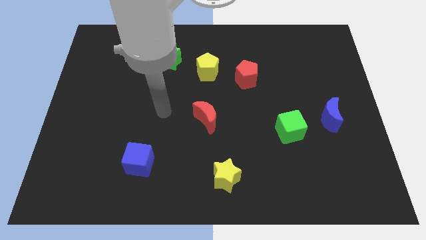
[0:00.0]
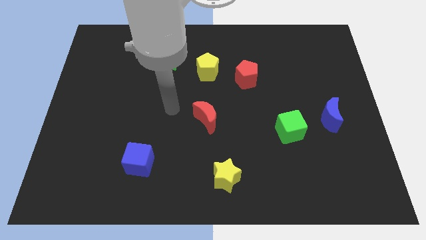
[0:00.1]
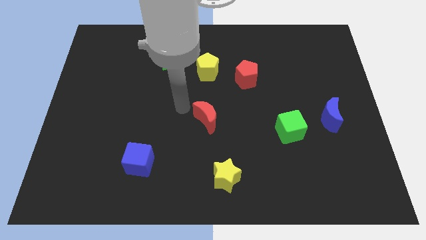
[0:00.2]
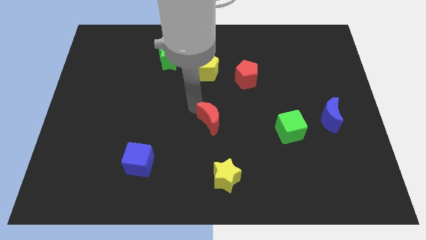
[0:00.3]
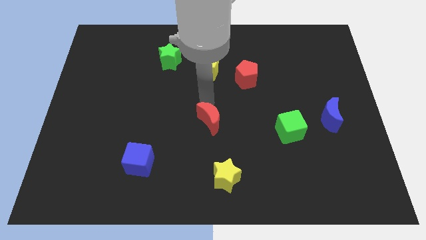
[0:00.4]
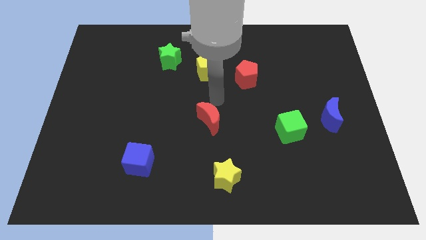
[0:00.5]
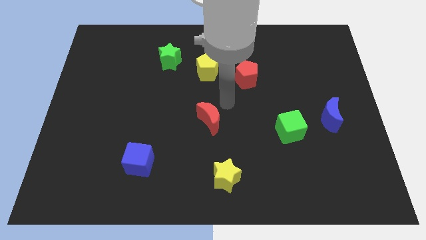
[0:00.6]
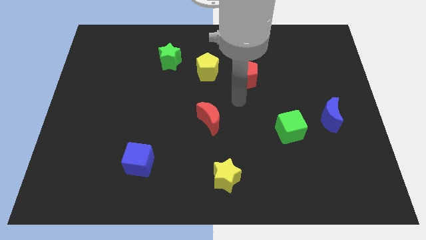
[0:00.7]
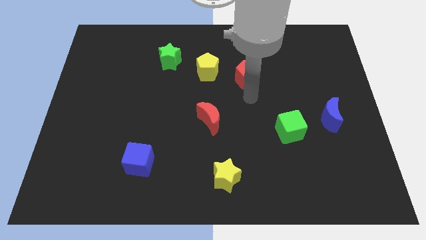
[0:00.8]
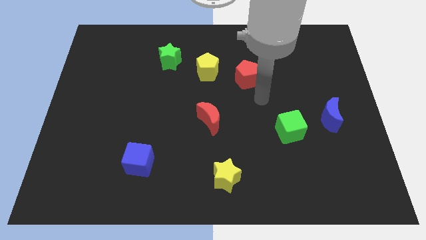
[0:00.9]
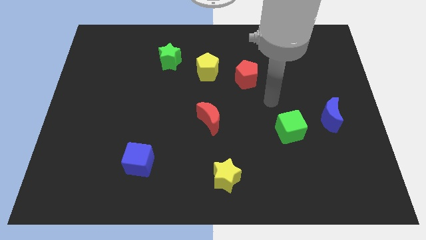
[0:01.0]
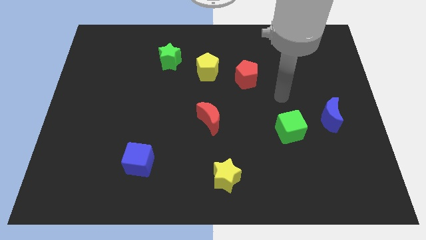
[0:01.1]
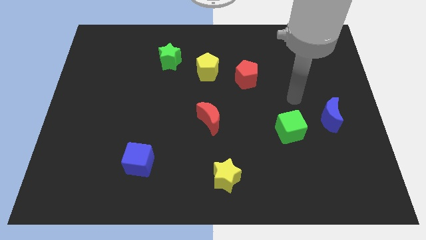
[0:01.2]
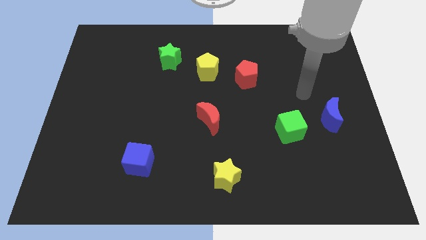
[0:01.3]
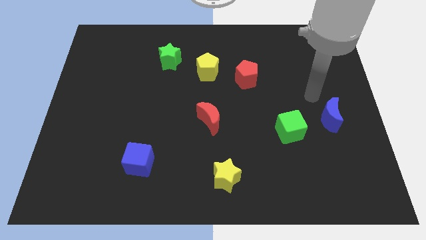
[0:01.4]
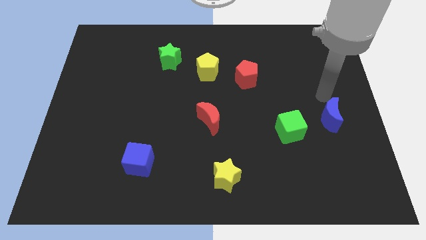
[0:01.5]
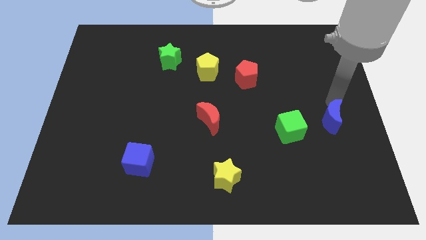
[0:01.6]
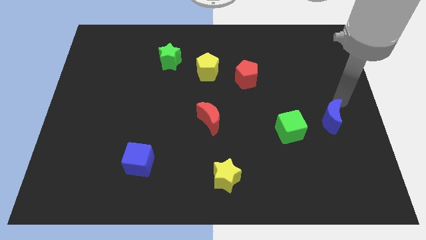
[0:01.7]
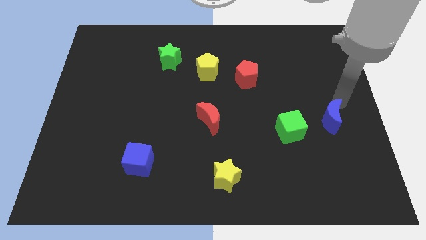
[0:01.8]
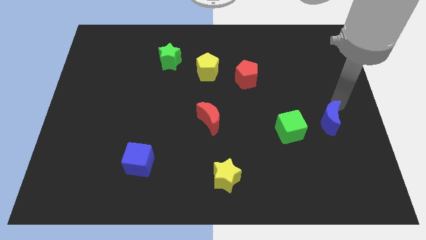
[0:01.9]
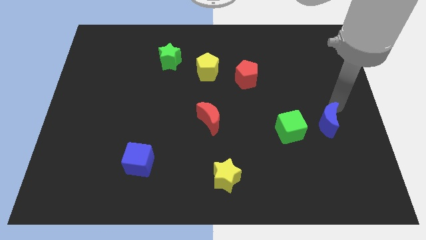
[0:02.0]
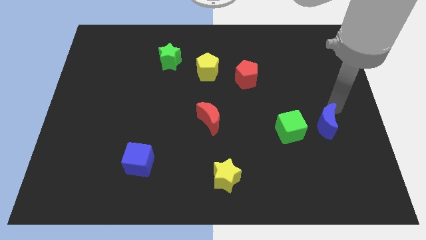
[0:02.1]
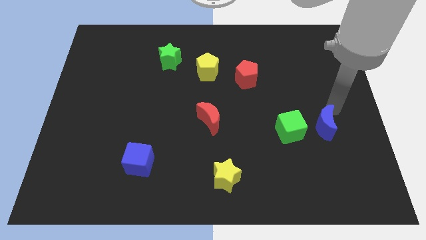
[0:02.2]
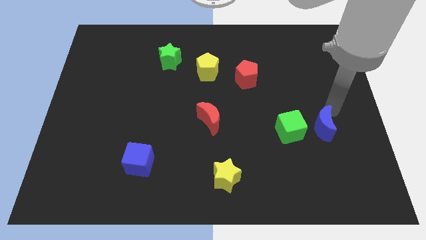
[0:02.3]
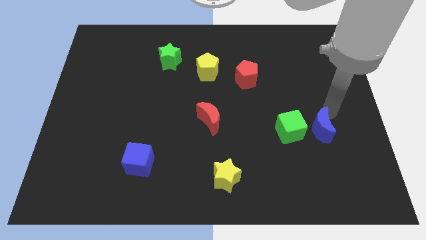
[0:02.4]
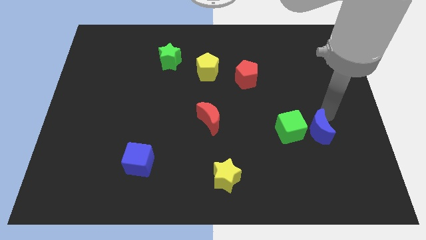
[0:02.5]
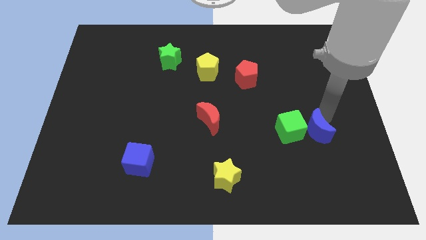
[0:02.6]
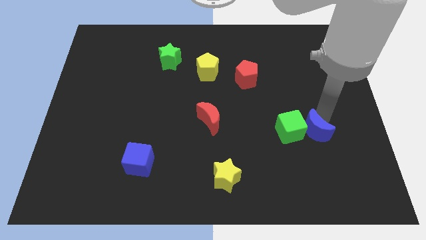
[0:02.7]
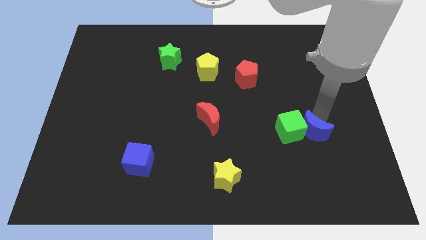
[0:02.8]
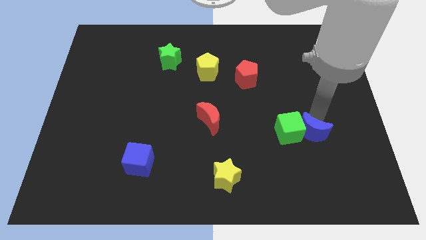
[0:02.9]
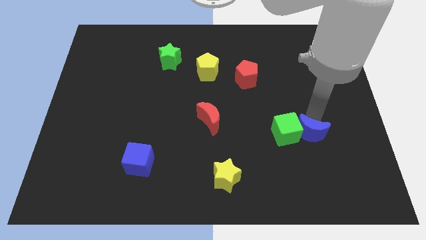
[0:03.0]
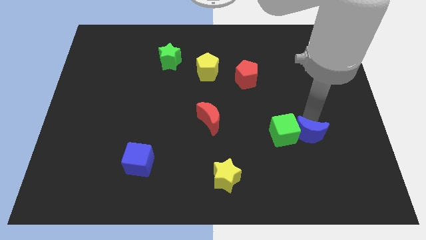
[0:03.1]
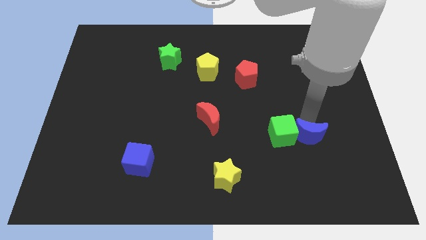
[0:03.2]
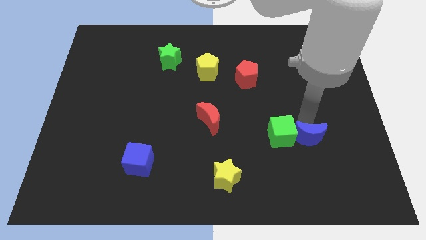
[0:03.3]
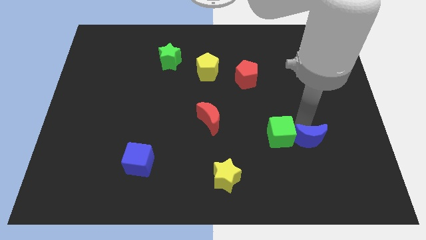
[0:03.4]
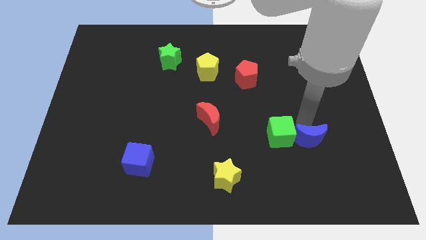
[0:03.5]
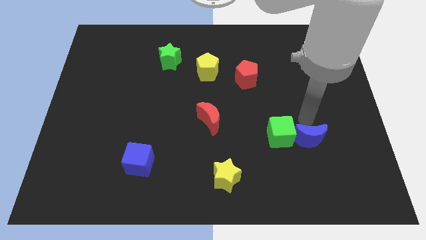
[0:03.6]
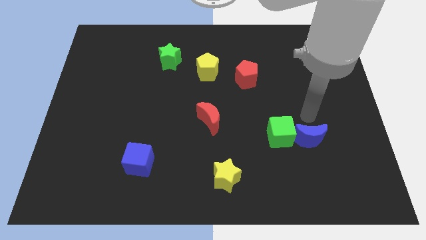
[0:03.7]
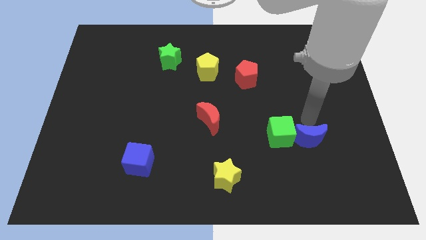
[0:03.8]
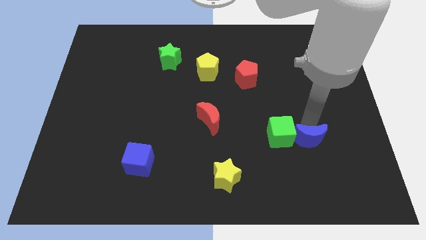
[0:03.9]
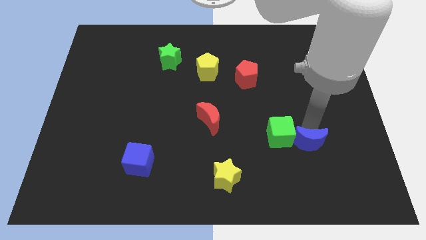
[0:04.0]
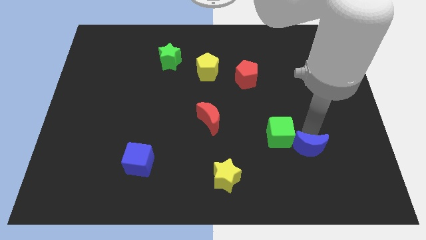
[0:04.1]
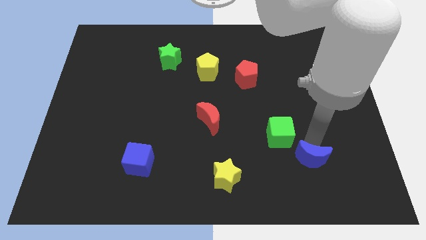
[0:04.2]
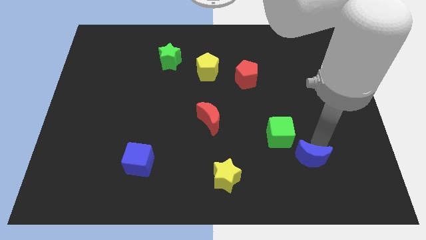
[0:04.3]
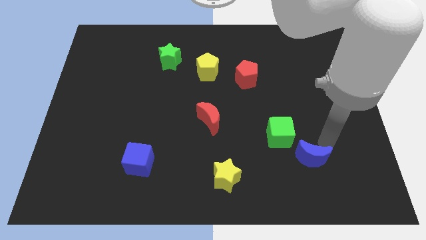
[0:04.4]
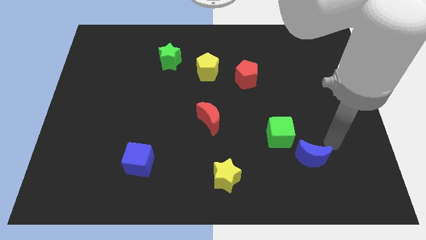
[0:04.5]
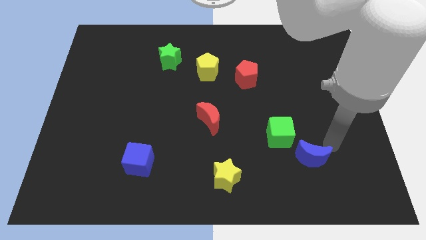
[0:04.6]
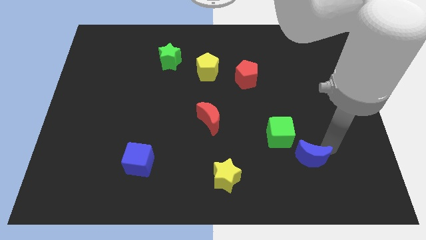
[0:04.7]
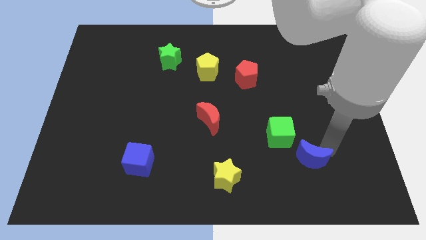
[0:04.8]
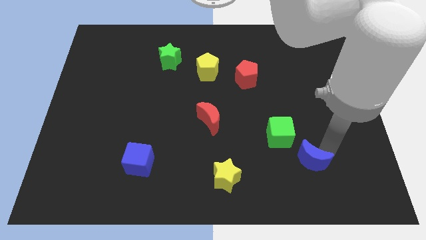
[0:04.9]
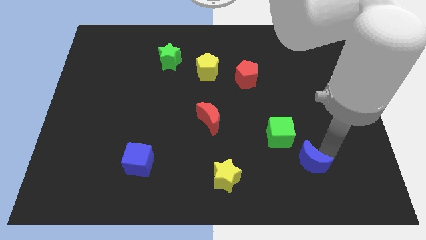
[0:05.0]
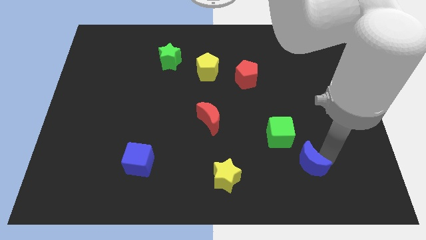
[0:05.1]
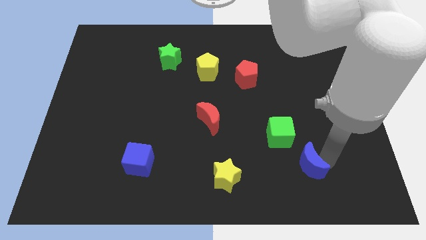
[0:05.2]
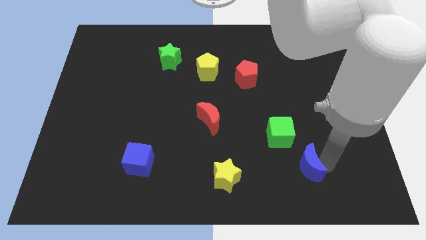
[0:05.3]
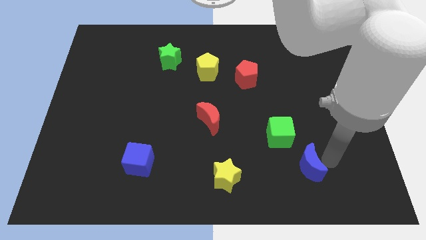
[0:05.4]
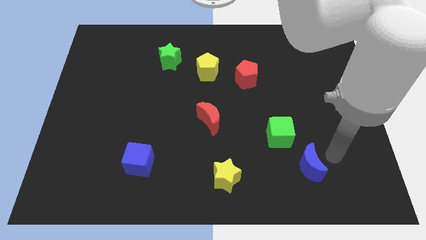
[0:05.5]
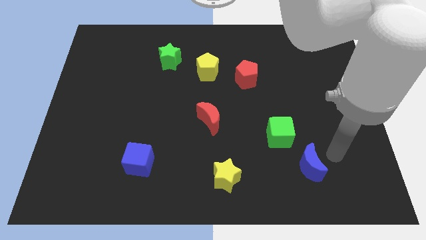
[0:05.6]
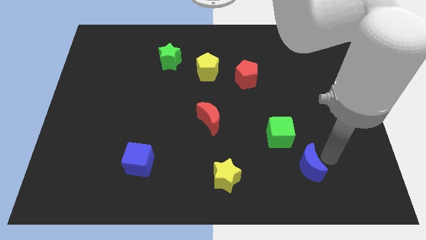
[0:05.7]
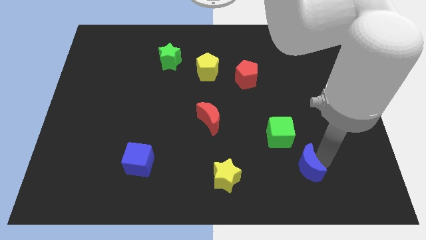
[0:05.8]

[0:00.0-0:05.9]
move the blue moon below the green cube

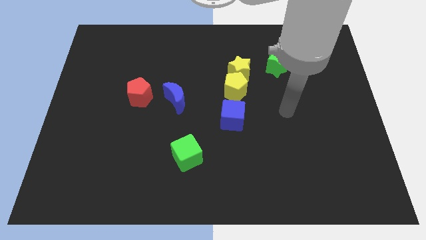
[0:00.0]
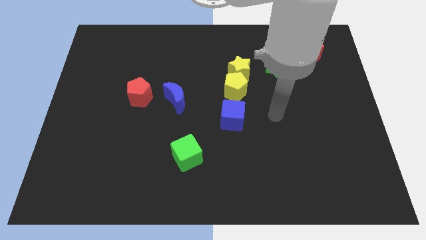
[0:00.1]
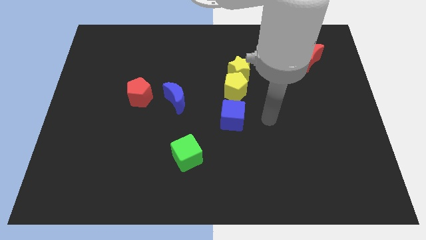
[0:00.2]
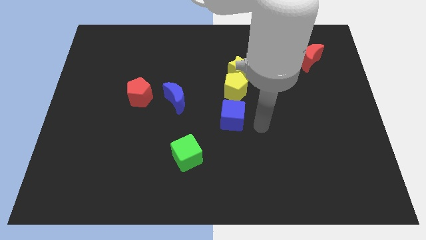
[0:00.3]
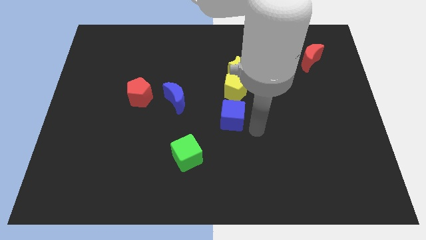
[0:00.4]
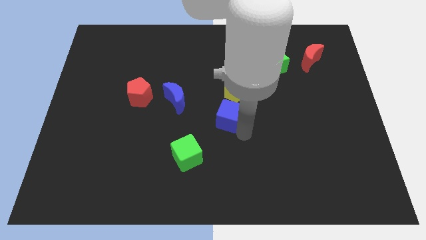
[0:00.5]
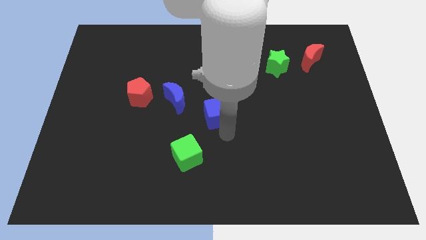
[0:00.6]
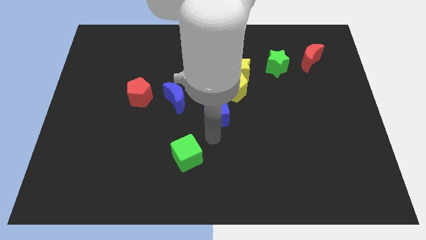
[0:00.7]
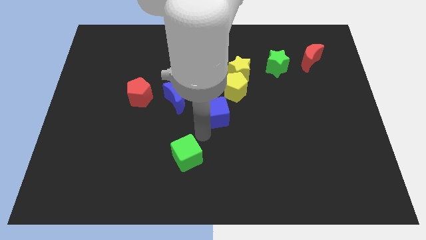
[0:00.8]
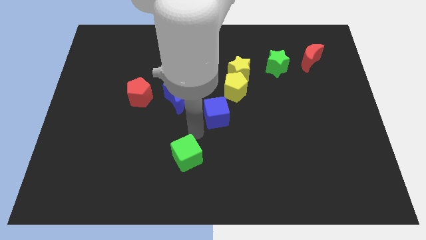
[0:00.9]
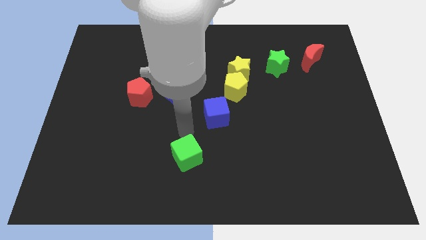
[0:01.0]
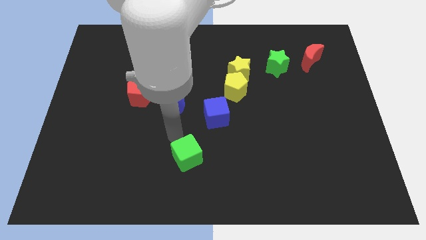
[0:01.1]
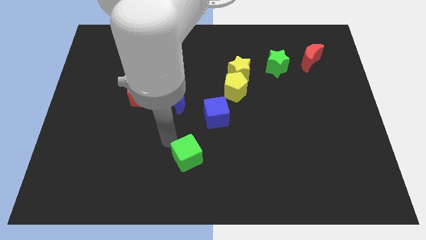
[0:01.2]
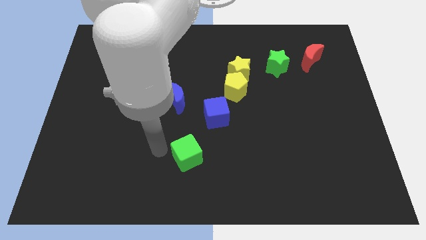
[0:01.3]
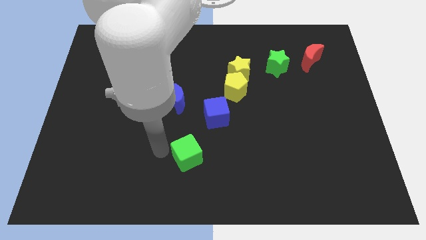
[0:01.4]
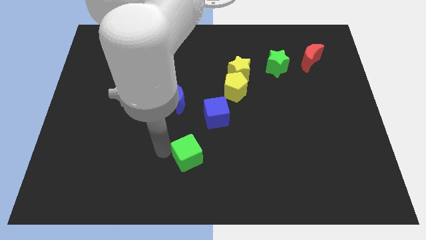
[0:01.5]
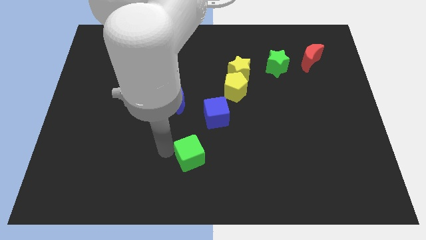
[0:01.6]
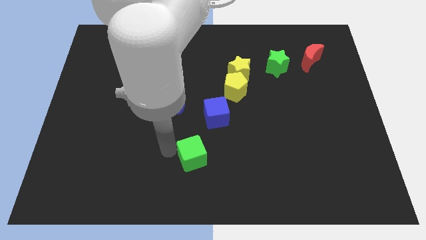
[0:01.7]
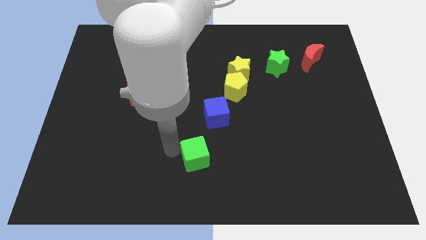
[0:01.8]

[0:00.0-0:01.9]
move the green cube to the bottom of the blue cube
